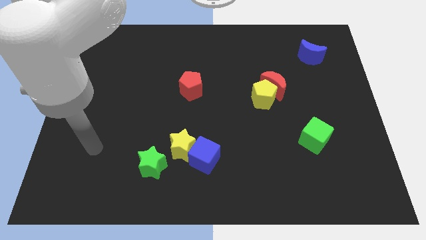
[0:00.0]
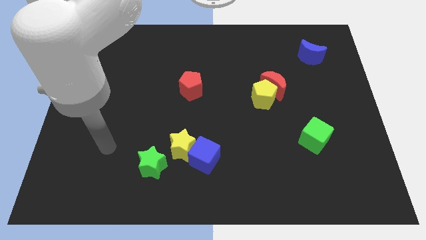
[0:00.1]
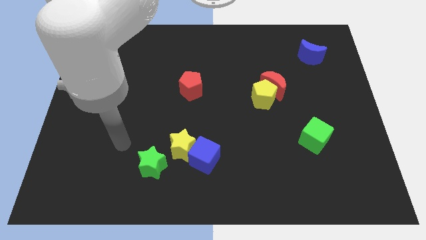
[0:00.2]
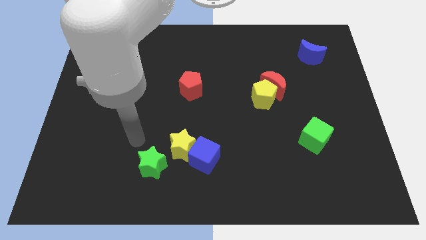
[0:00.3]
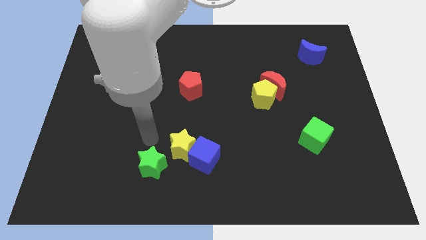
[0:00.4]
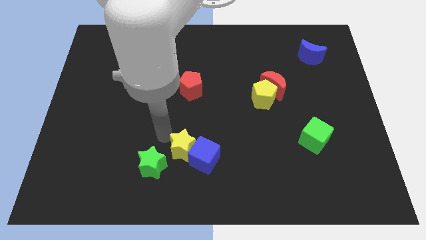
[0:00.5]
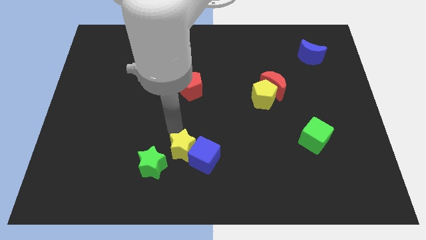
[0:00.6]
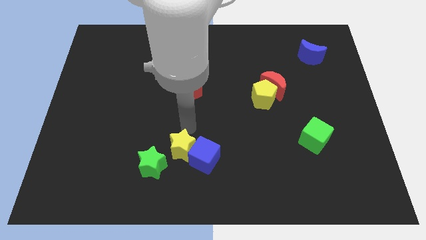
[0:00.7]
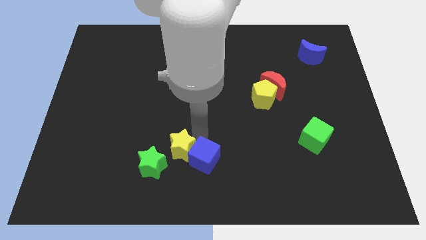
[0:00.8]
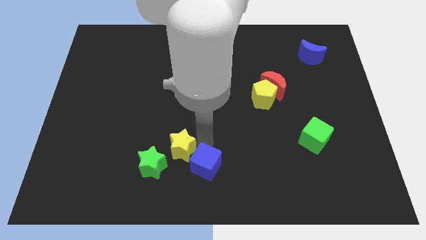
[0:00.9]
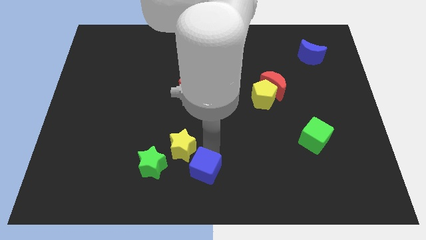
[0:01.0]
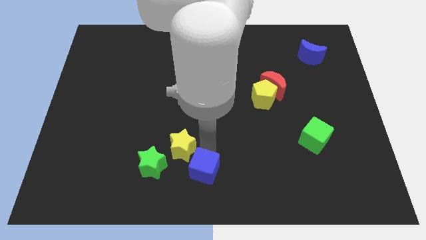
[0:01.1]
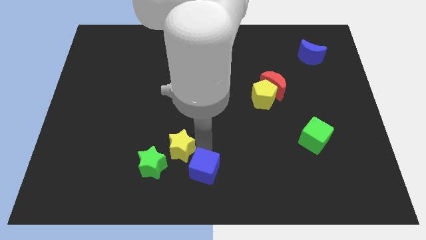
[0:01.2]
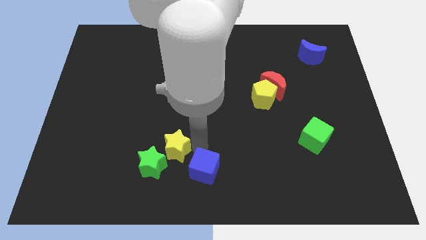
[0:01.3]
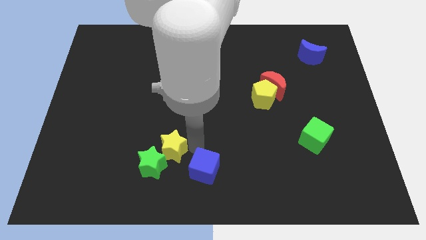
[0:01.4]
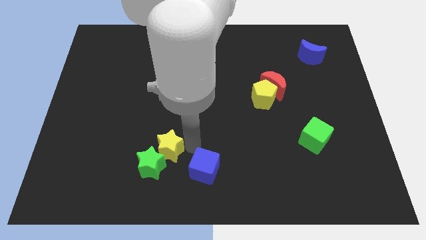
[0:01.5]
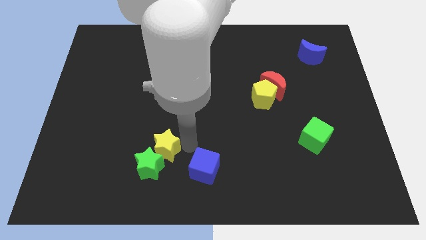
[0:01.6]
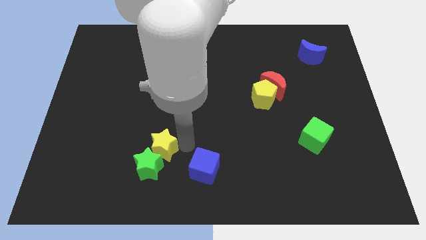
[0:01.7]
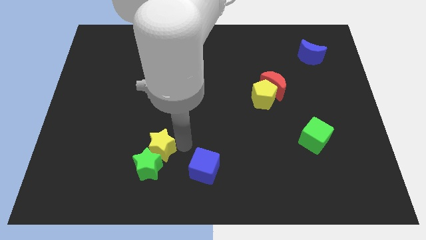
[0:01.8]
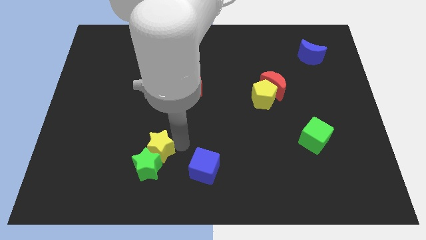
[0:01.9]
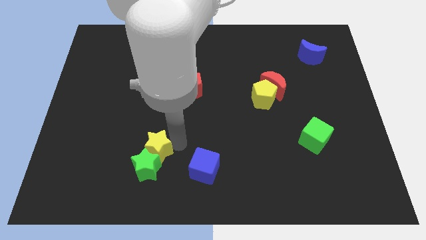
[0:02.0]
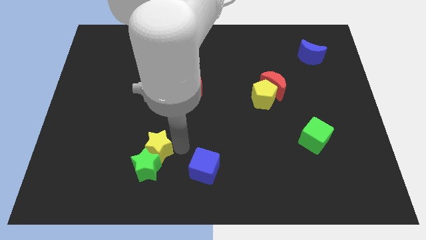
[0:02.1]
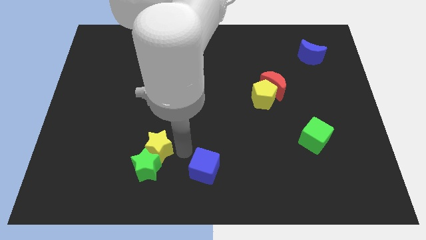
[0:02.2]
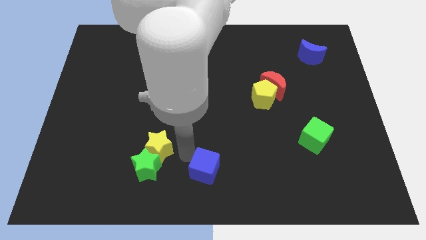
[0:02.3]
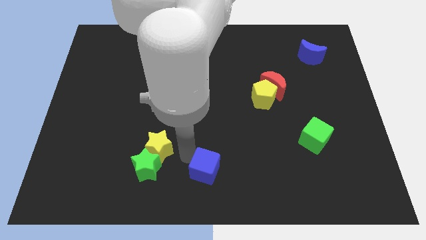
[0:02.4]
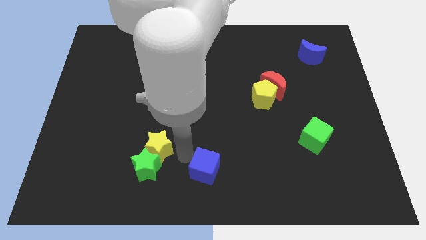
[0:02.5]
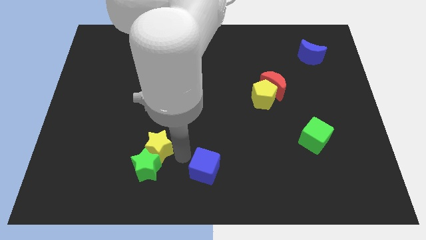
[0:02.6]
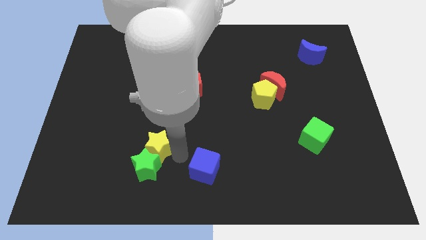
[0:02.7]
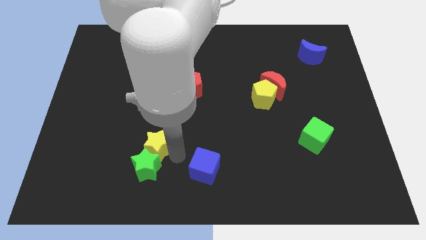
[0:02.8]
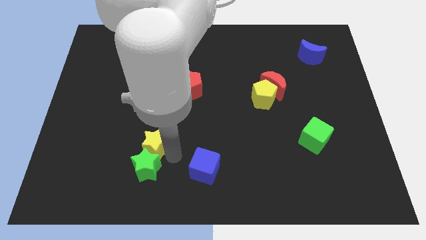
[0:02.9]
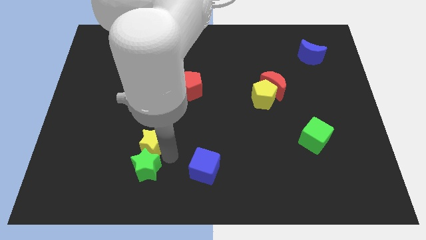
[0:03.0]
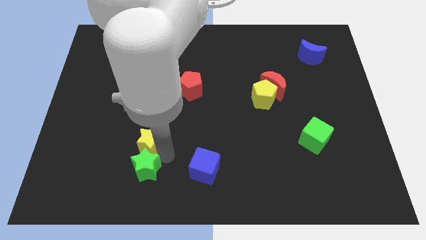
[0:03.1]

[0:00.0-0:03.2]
slightly push the yellow star left

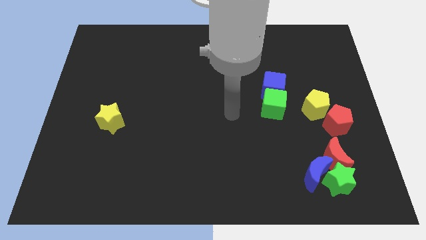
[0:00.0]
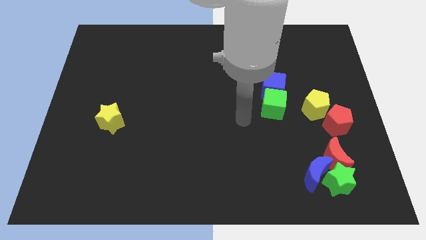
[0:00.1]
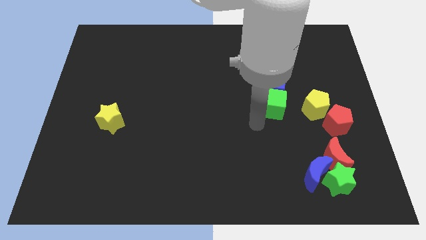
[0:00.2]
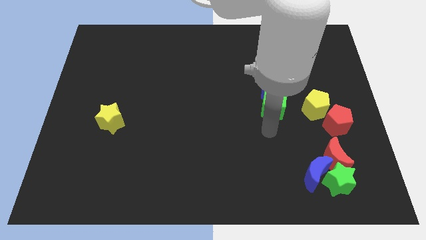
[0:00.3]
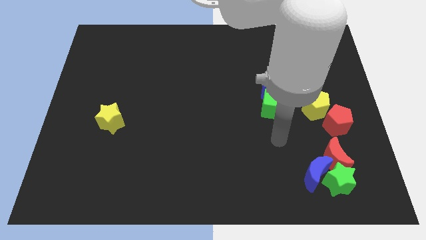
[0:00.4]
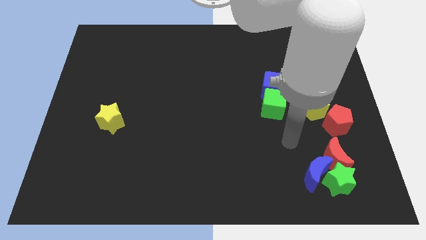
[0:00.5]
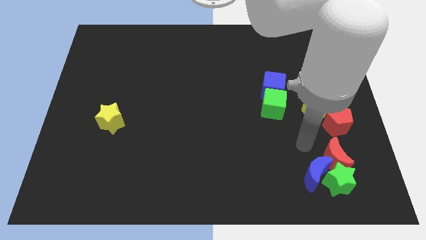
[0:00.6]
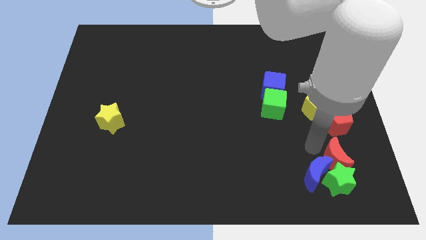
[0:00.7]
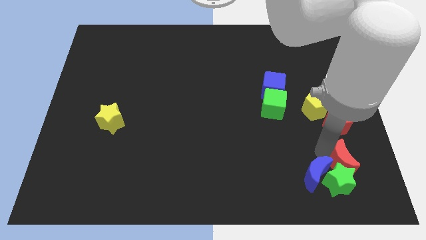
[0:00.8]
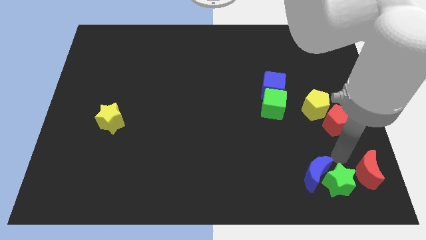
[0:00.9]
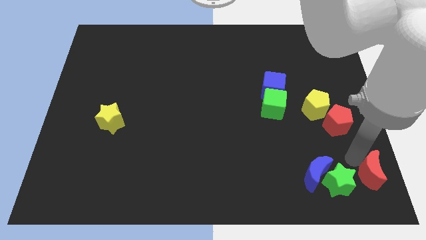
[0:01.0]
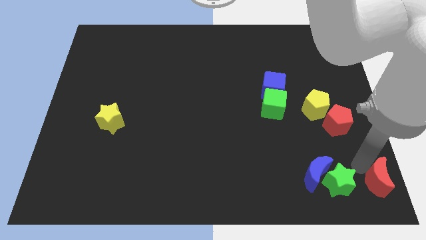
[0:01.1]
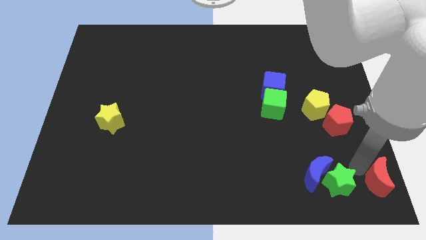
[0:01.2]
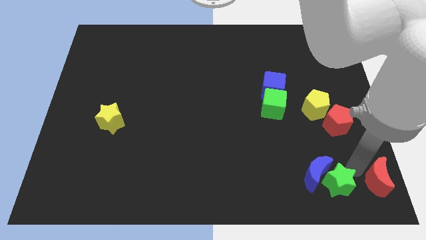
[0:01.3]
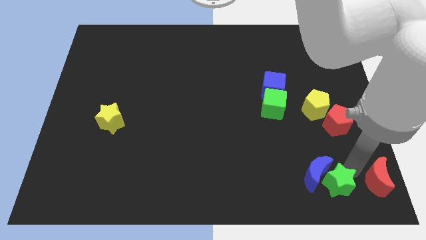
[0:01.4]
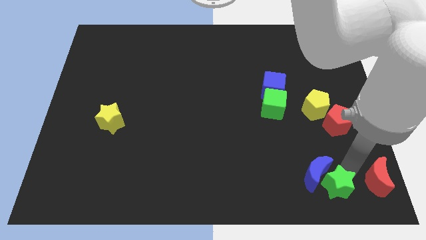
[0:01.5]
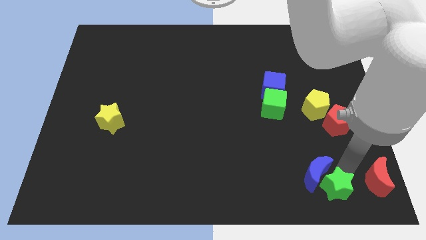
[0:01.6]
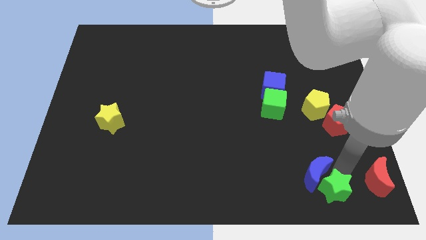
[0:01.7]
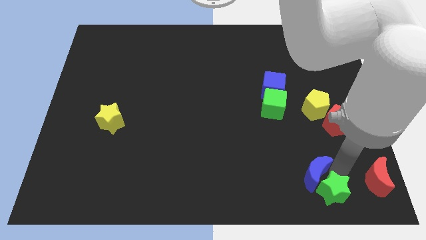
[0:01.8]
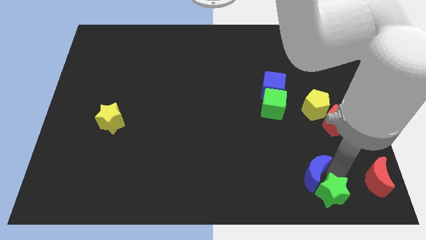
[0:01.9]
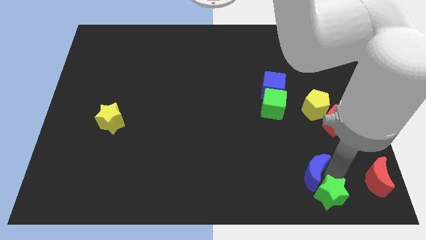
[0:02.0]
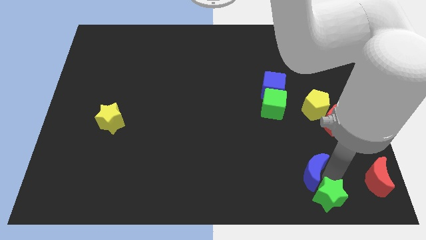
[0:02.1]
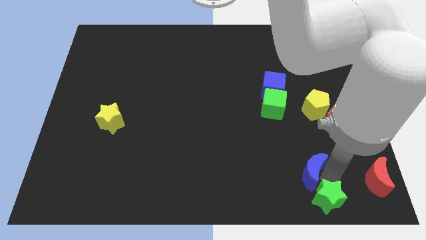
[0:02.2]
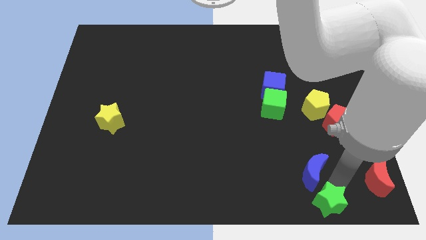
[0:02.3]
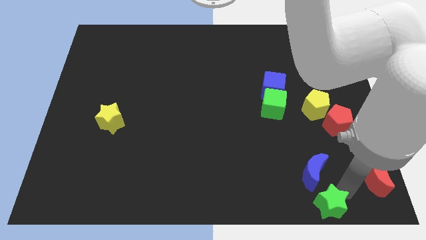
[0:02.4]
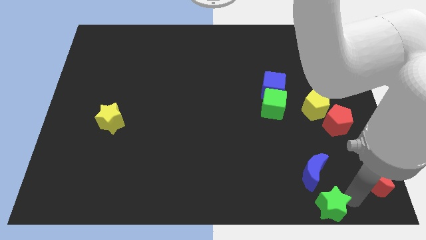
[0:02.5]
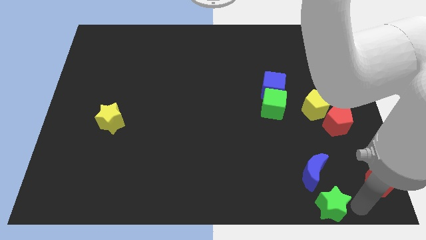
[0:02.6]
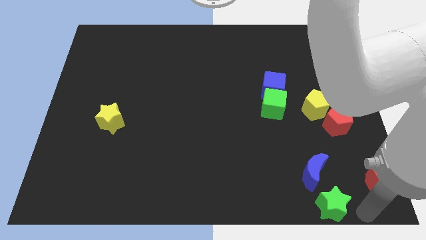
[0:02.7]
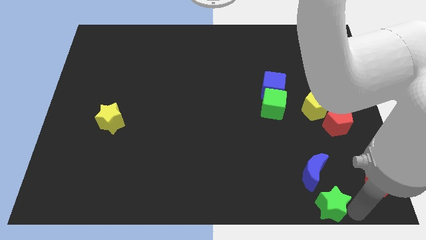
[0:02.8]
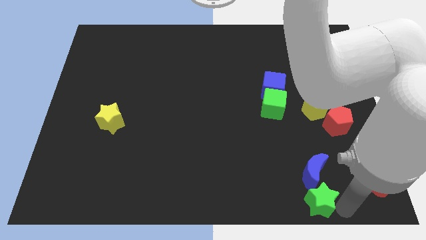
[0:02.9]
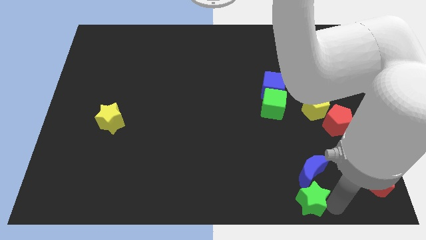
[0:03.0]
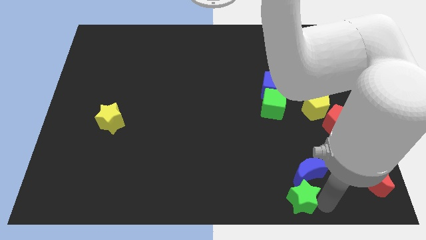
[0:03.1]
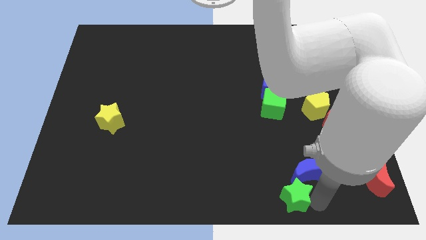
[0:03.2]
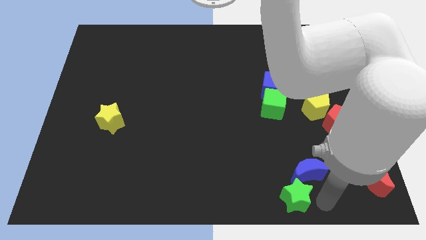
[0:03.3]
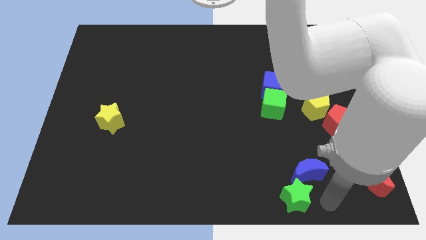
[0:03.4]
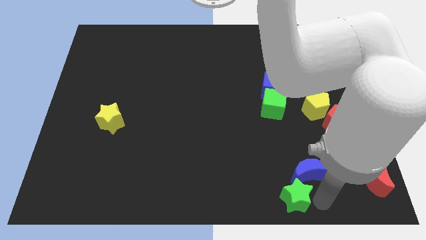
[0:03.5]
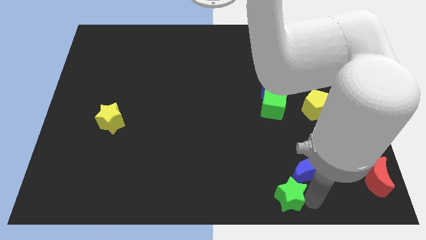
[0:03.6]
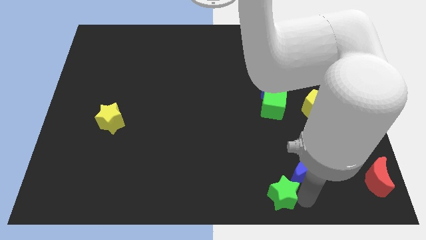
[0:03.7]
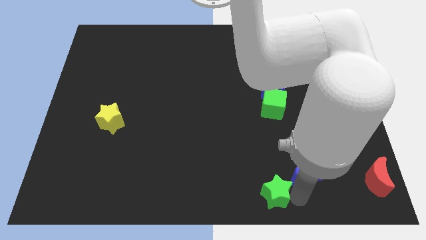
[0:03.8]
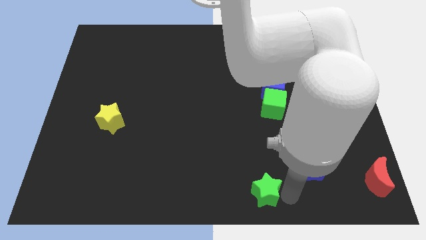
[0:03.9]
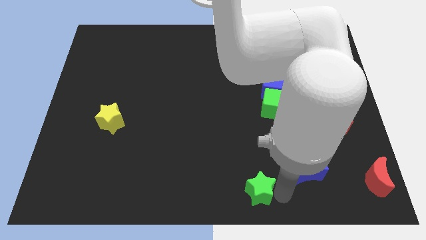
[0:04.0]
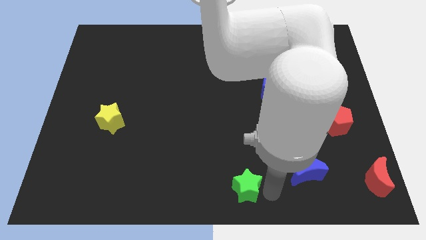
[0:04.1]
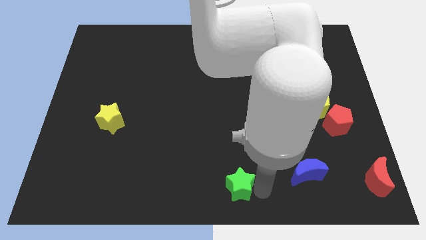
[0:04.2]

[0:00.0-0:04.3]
push the green star to the left

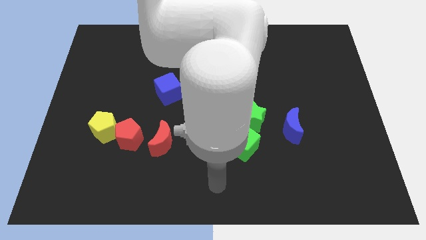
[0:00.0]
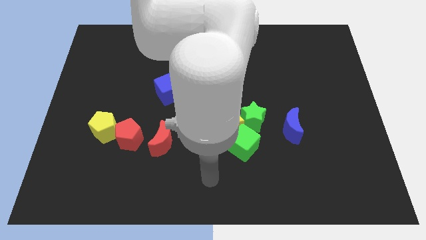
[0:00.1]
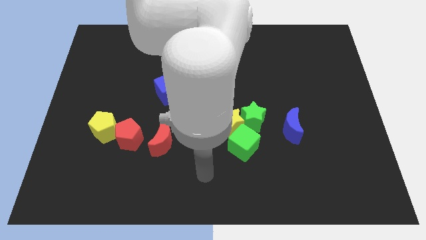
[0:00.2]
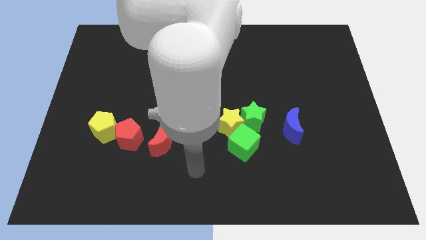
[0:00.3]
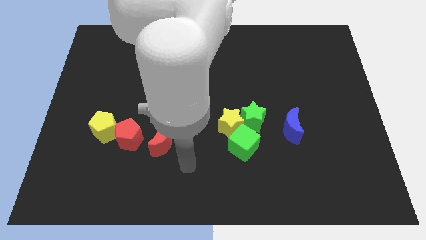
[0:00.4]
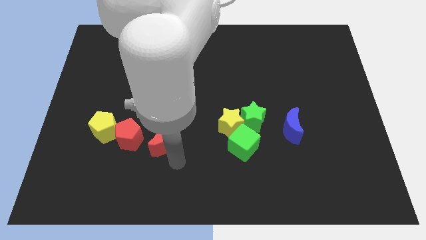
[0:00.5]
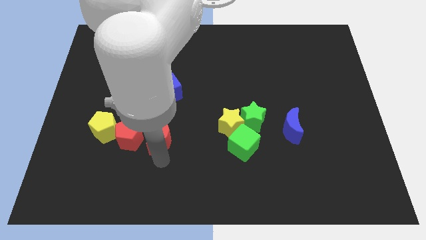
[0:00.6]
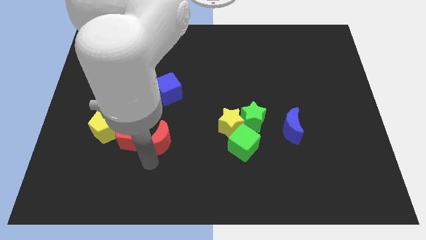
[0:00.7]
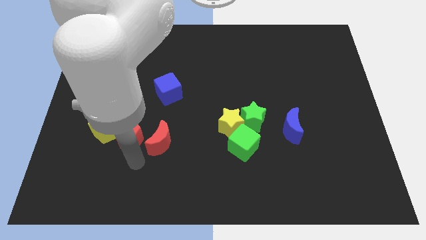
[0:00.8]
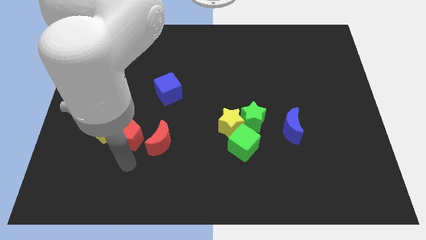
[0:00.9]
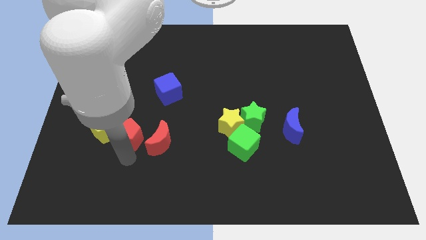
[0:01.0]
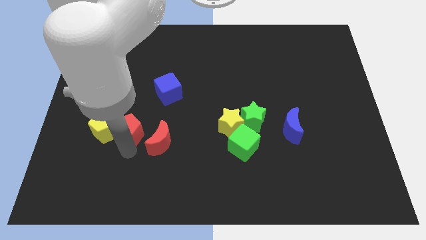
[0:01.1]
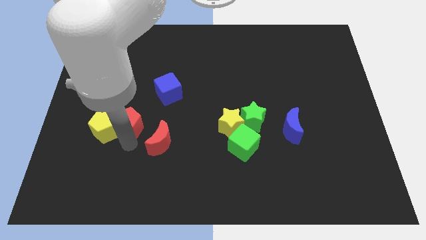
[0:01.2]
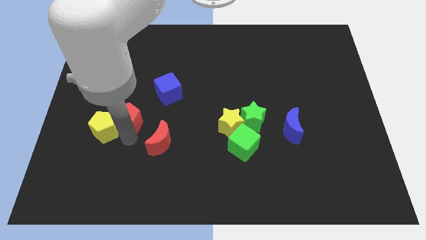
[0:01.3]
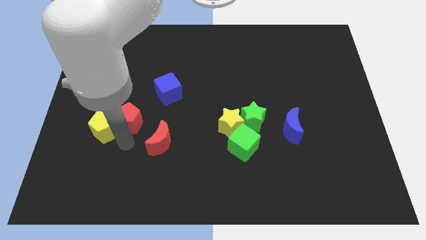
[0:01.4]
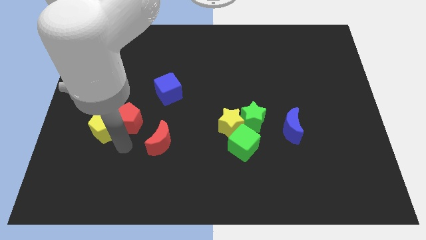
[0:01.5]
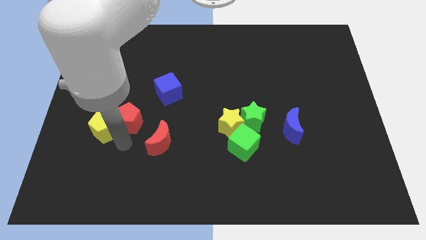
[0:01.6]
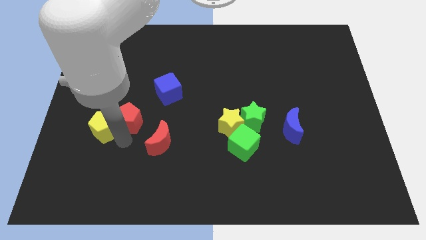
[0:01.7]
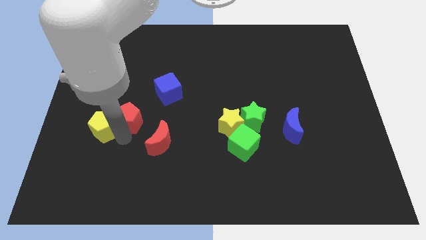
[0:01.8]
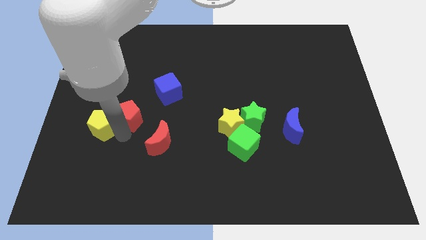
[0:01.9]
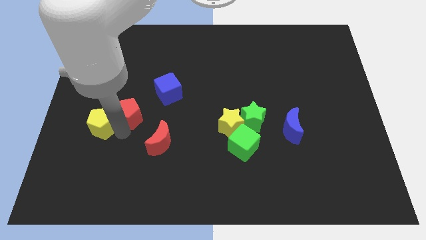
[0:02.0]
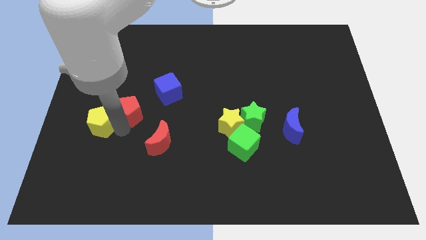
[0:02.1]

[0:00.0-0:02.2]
slide the red pentagon upwards somewhat
